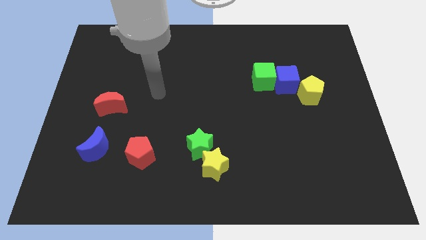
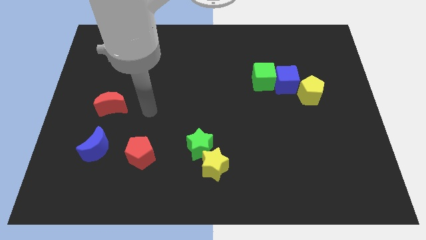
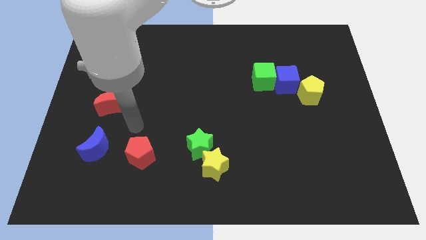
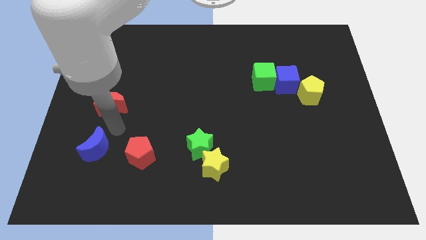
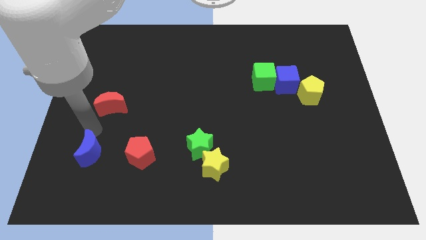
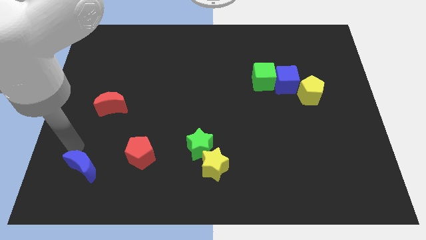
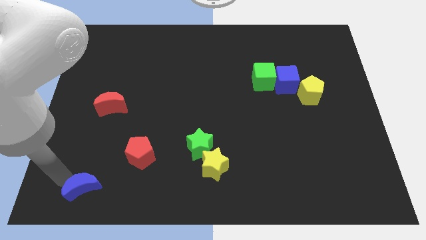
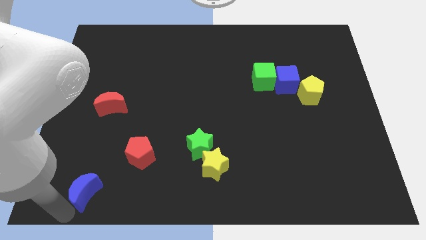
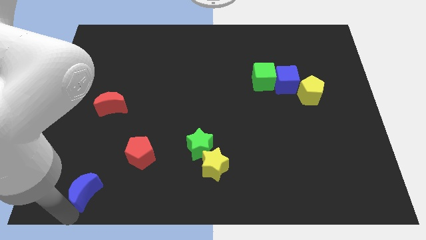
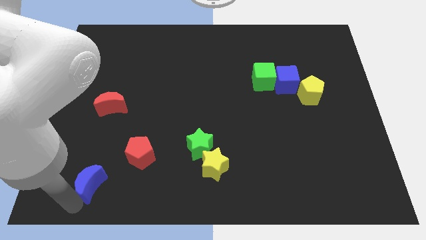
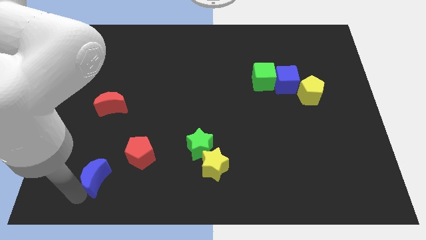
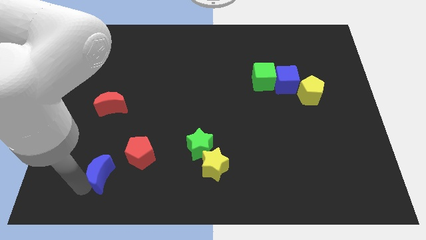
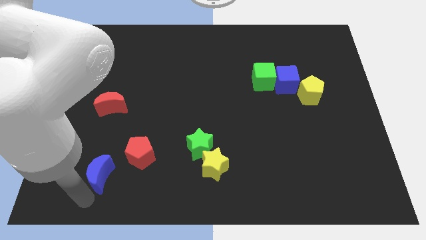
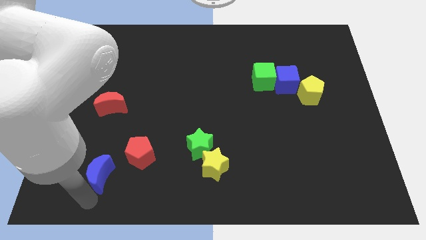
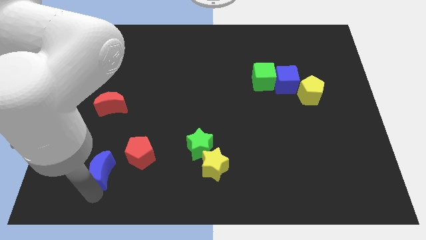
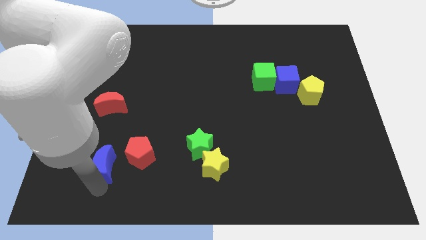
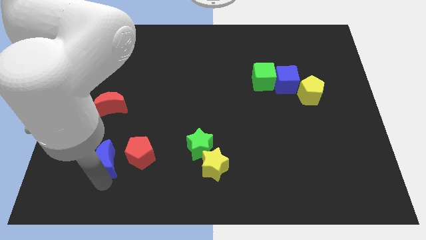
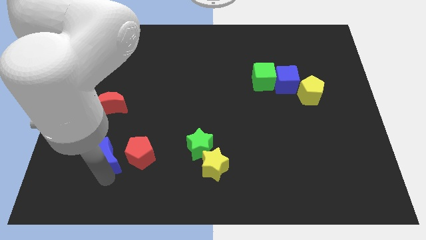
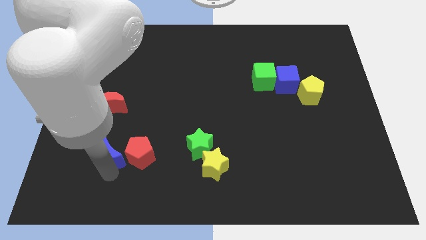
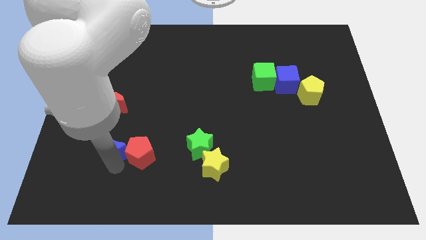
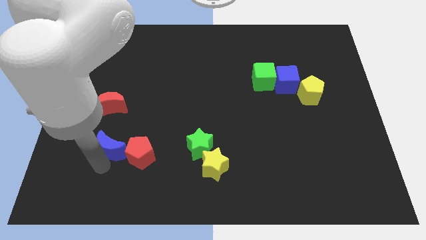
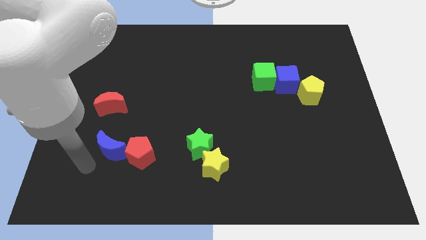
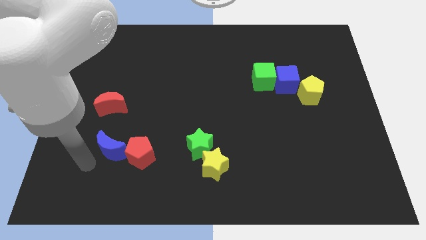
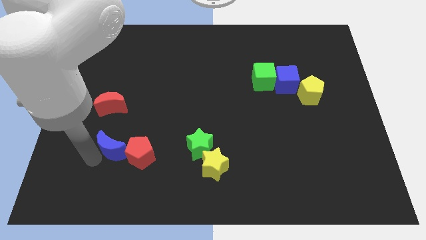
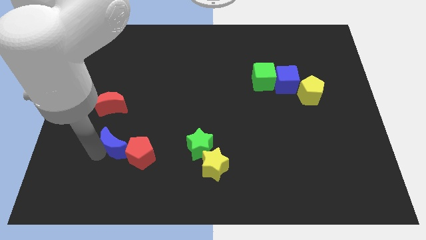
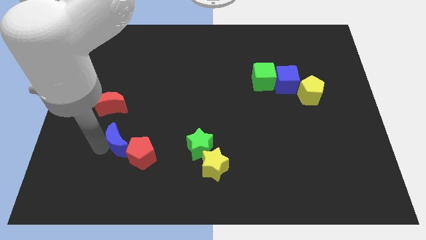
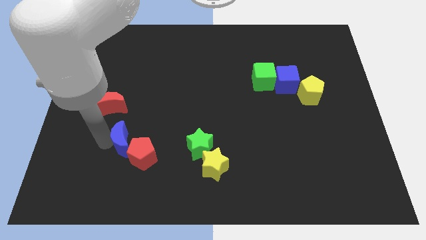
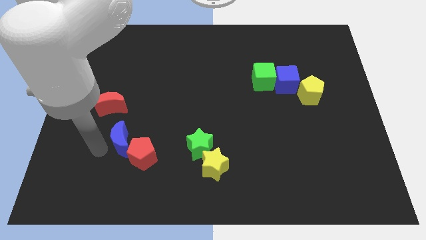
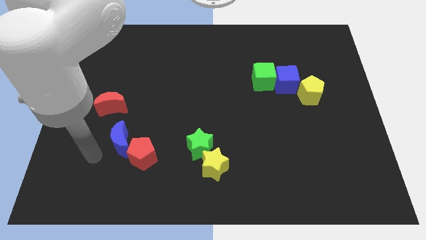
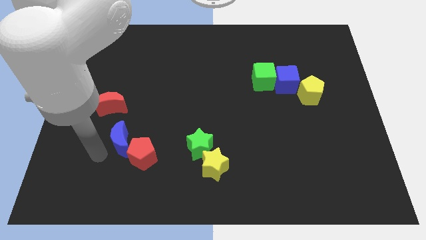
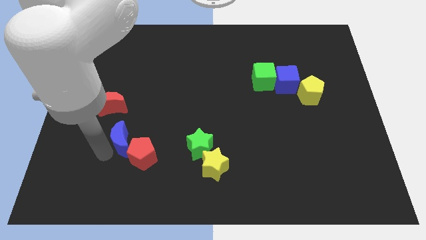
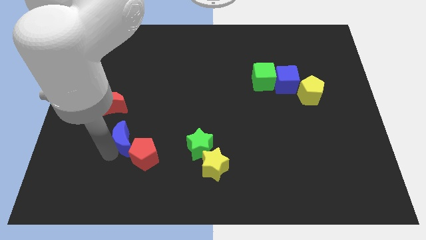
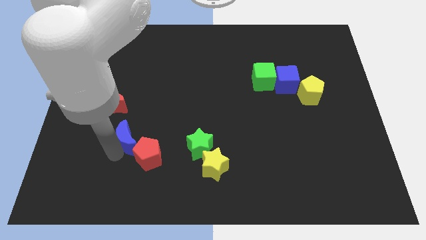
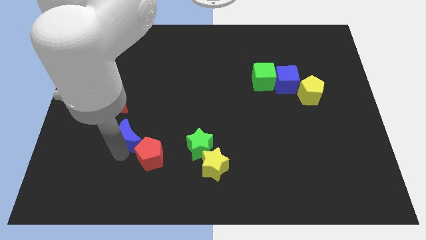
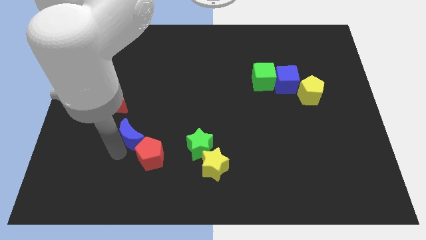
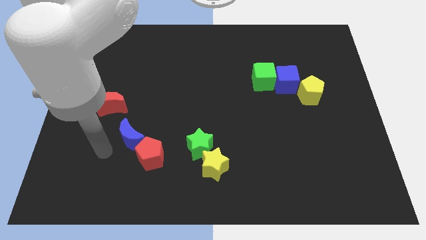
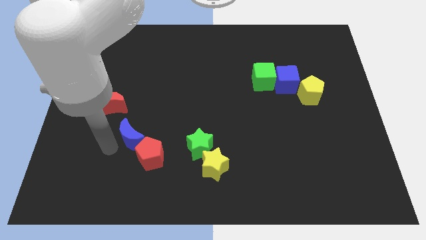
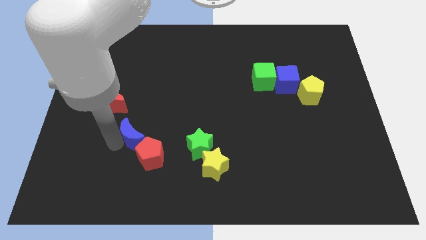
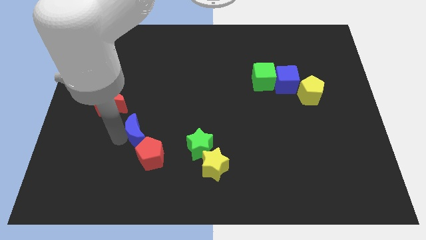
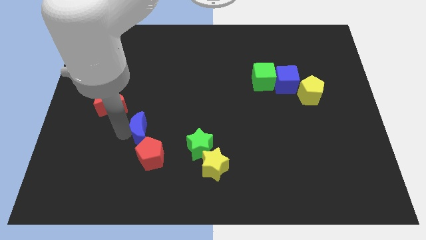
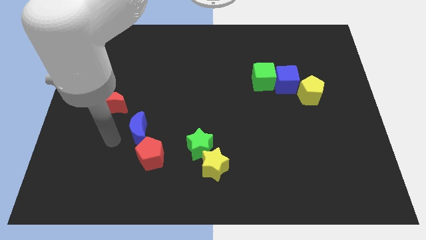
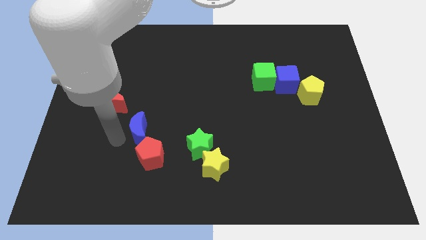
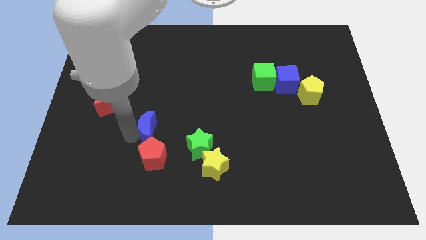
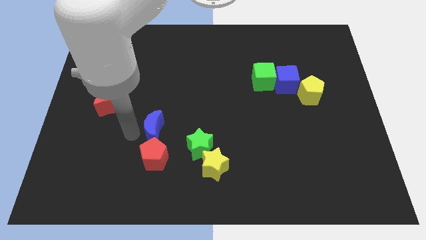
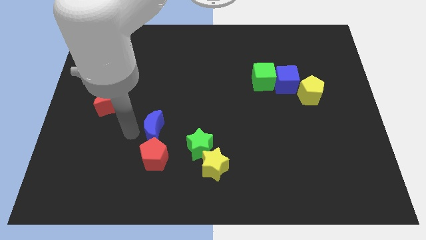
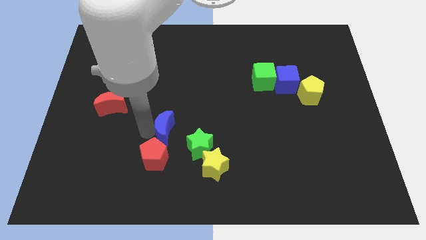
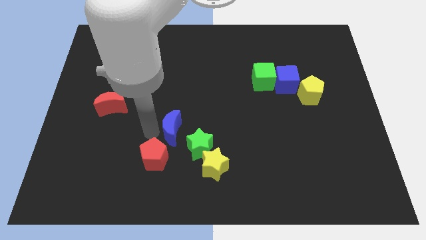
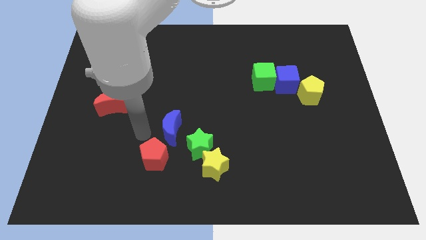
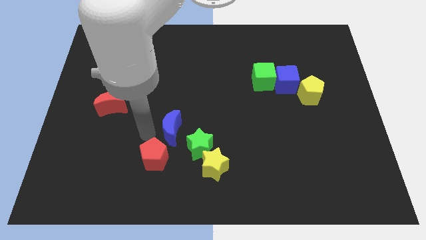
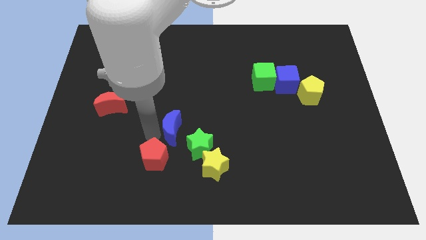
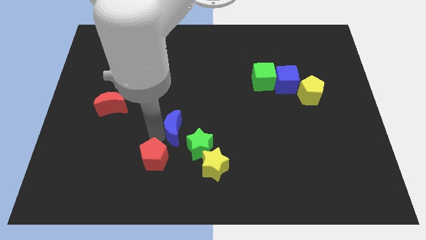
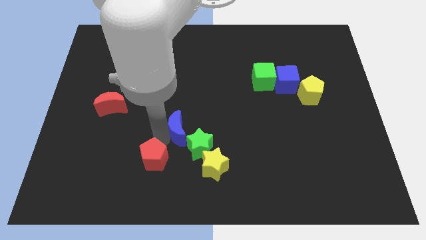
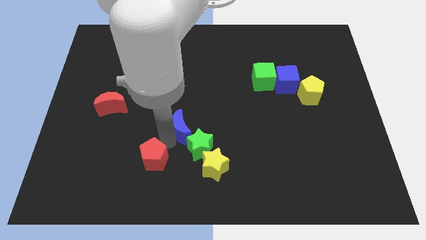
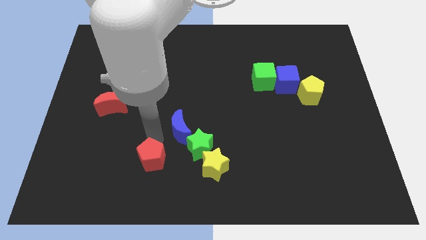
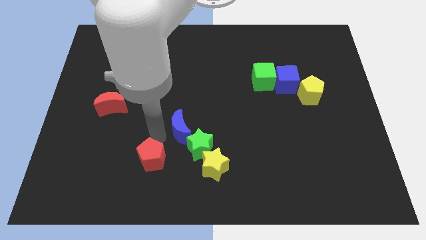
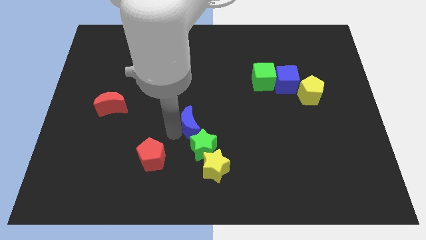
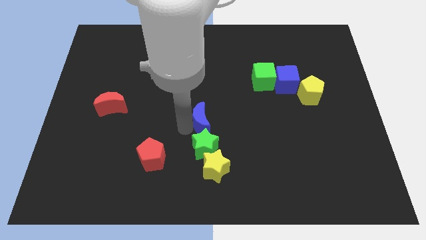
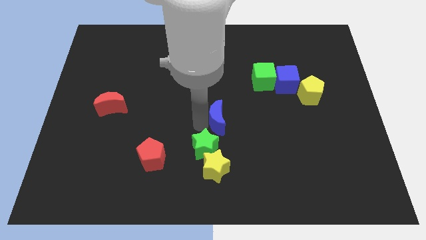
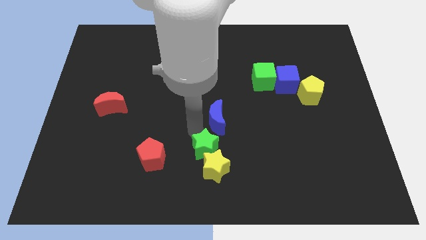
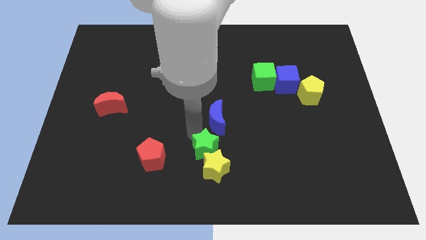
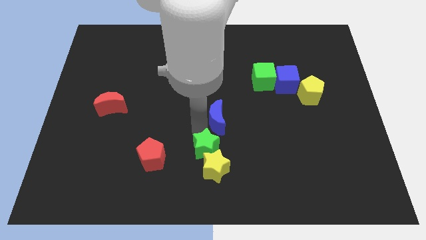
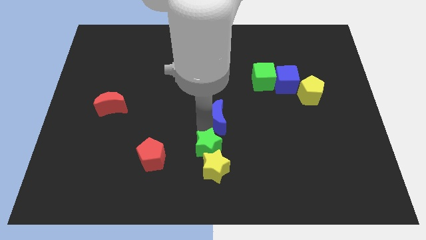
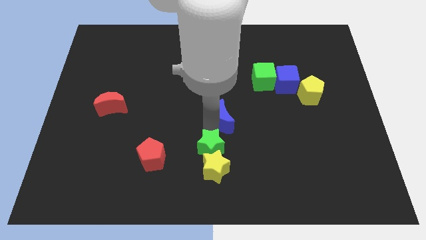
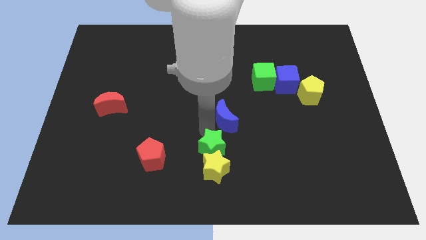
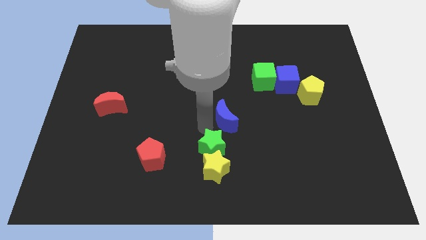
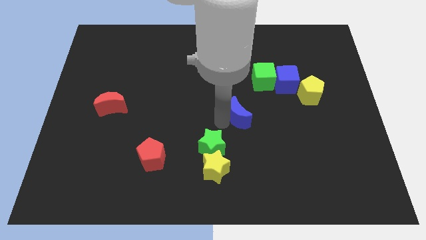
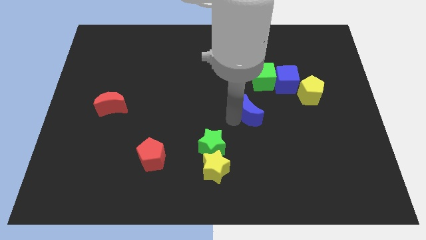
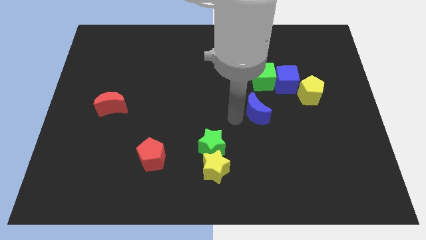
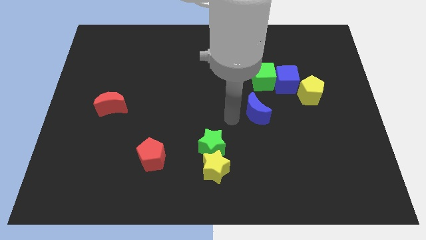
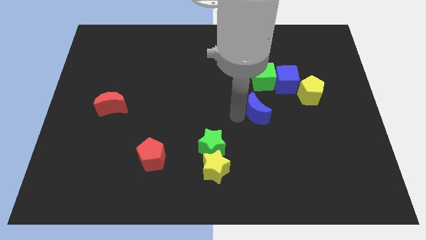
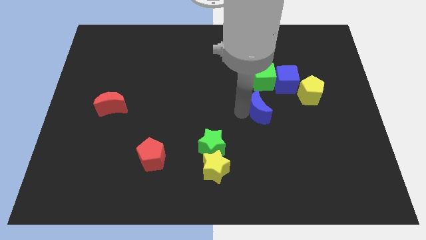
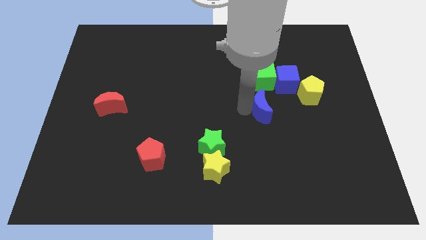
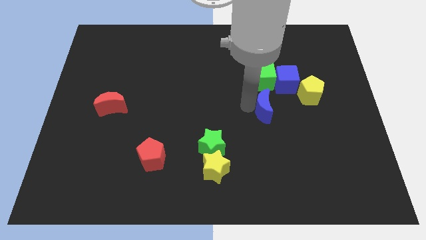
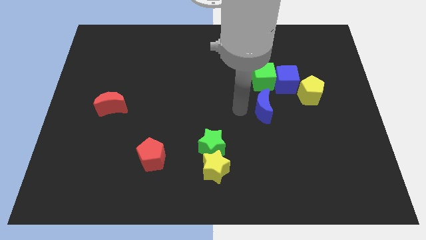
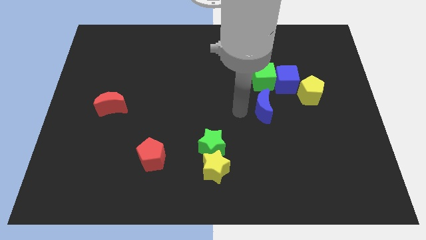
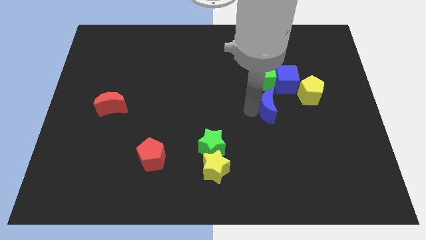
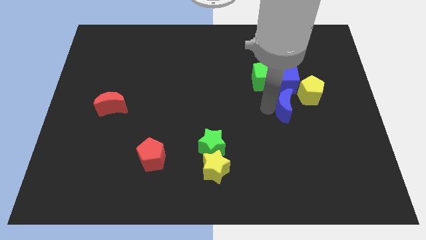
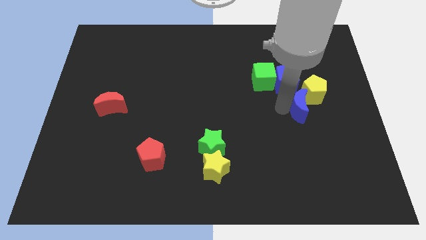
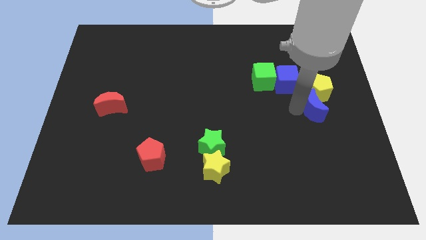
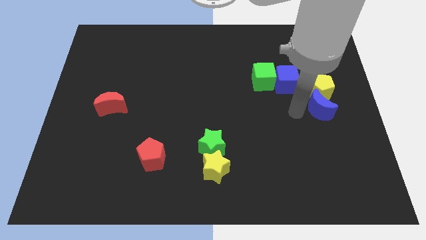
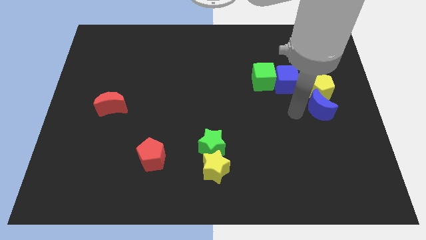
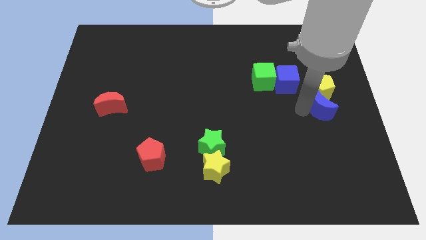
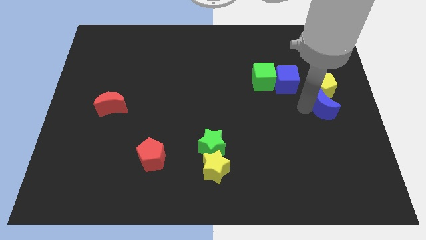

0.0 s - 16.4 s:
slide the blue moon to the center right
